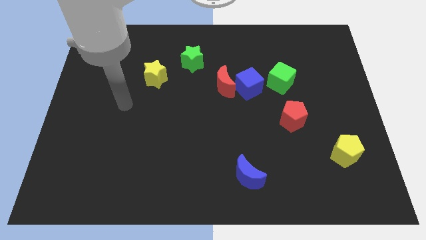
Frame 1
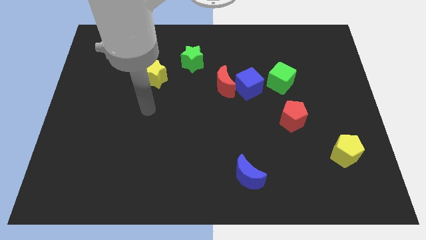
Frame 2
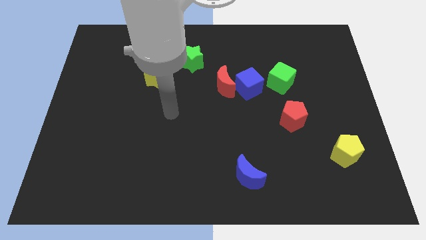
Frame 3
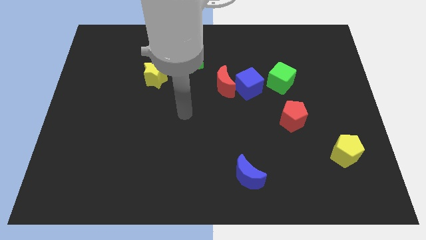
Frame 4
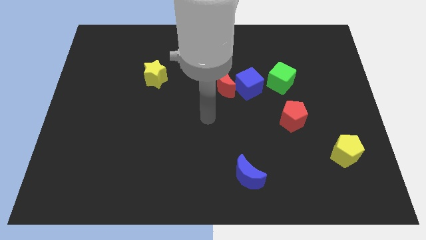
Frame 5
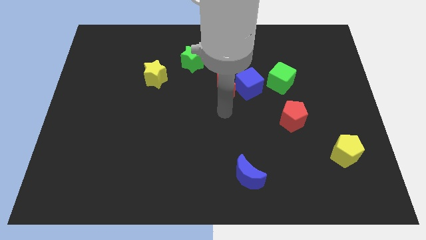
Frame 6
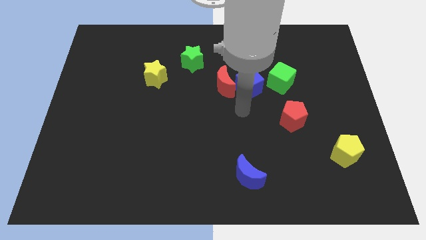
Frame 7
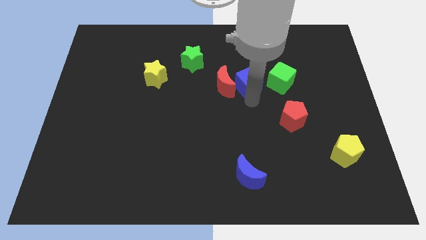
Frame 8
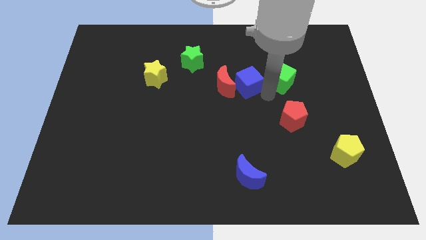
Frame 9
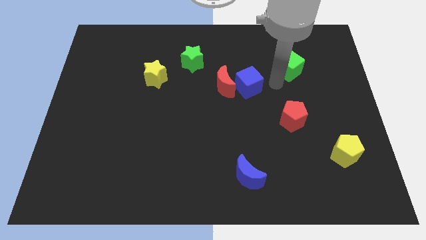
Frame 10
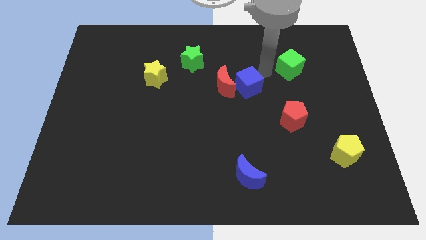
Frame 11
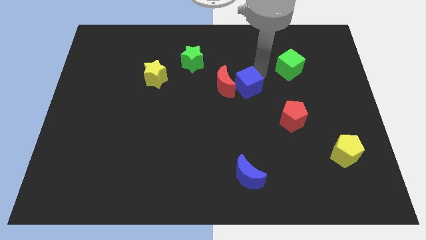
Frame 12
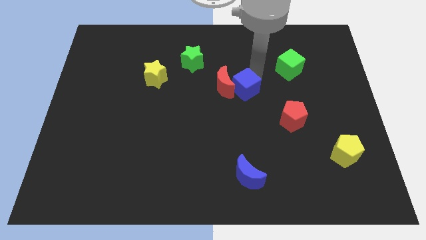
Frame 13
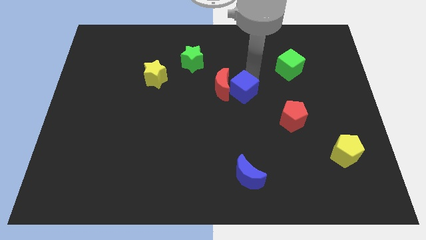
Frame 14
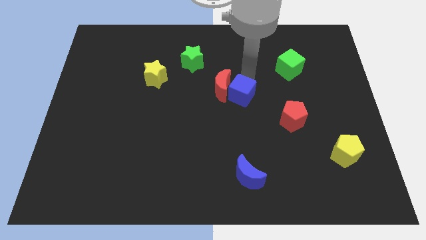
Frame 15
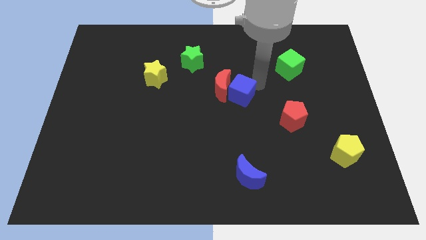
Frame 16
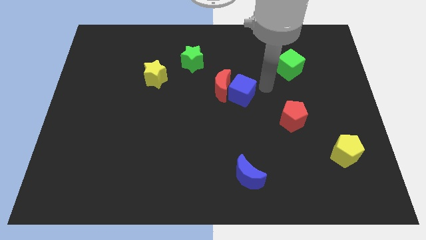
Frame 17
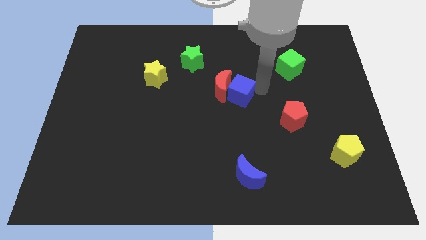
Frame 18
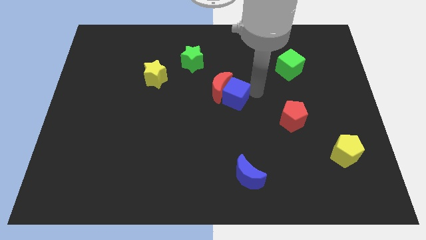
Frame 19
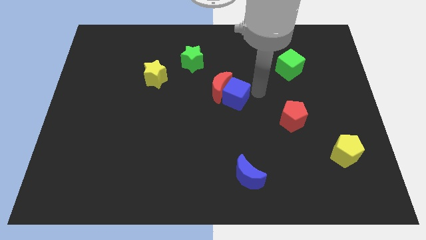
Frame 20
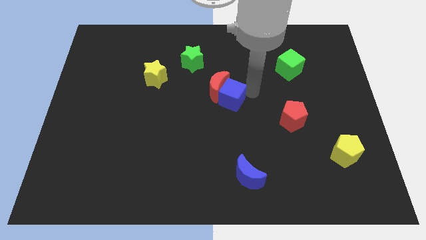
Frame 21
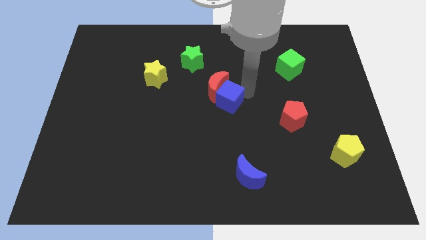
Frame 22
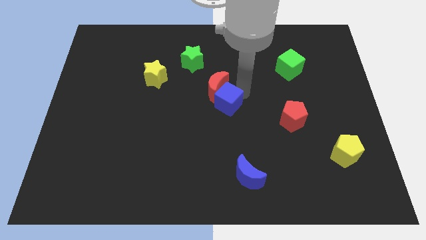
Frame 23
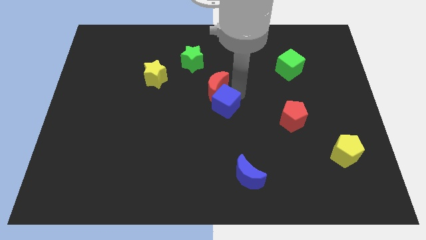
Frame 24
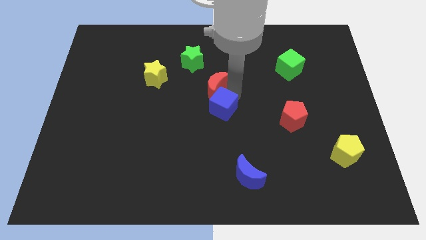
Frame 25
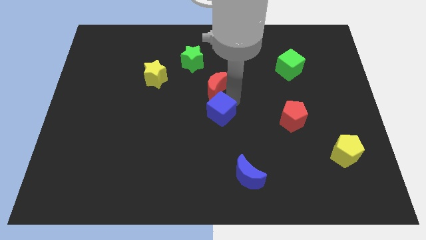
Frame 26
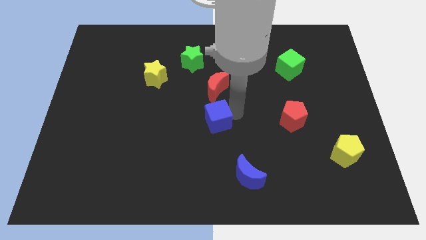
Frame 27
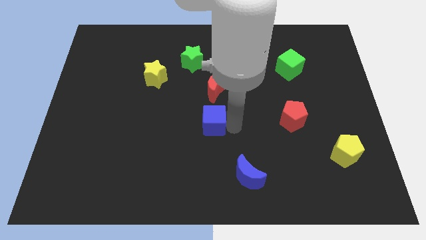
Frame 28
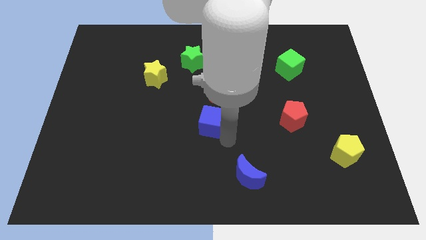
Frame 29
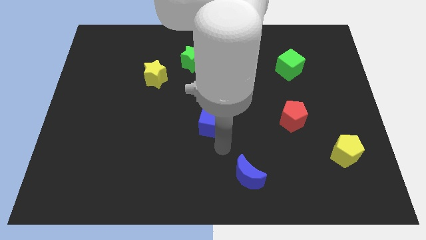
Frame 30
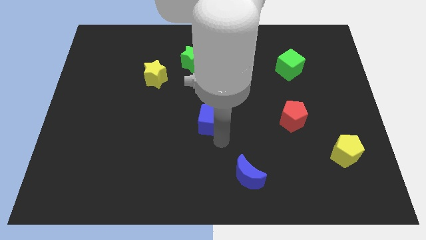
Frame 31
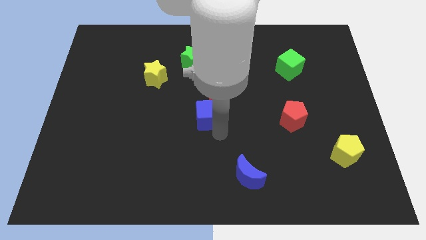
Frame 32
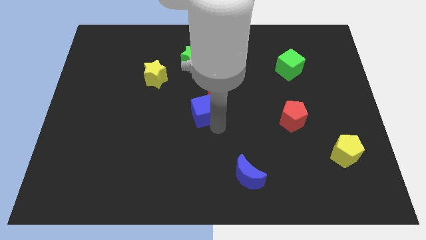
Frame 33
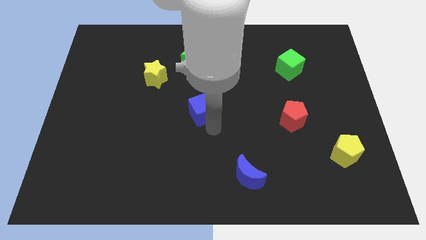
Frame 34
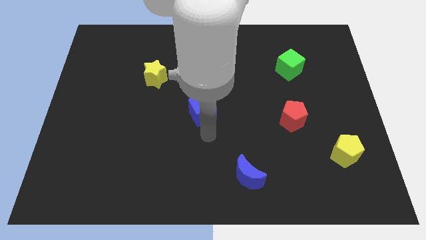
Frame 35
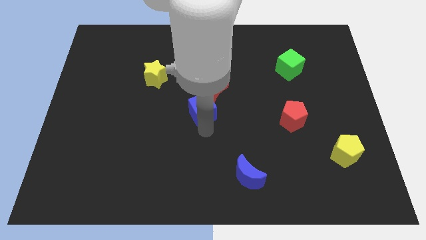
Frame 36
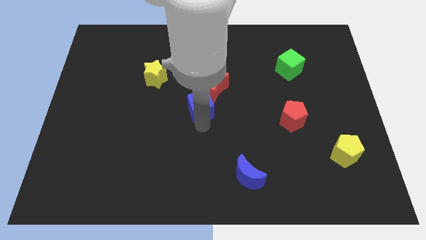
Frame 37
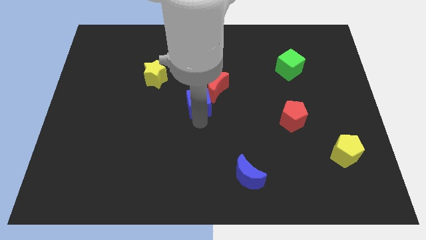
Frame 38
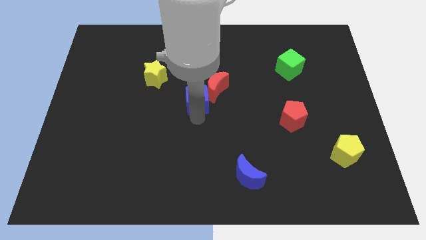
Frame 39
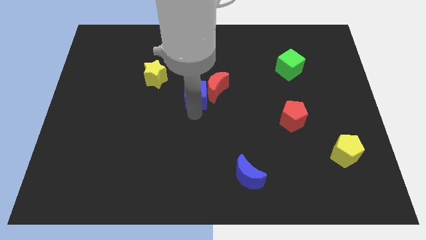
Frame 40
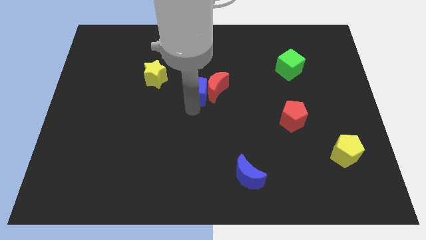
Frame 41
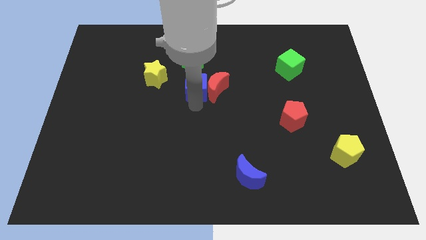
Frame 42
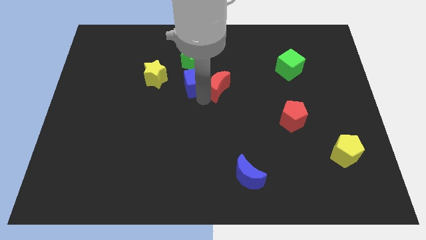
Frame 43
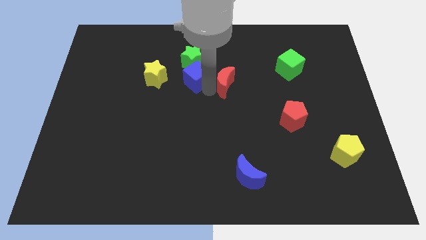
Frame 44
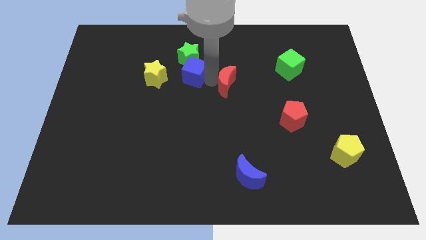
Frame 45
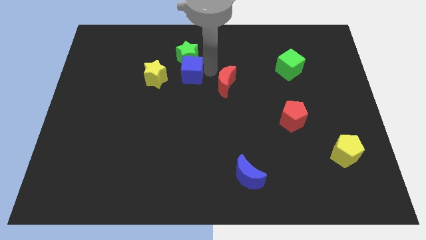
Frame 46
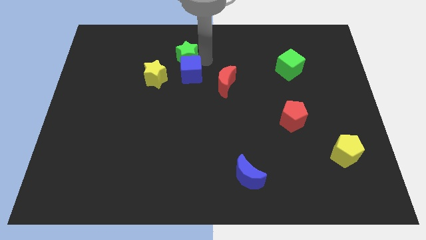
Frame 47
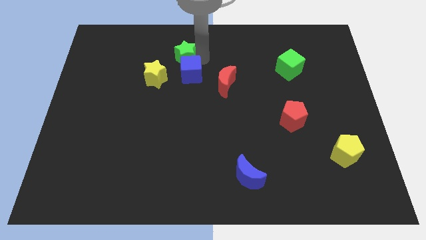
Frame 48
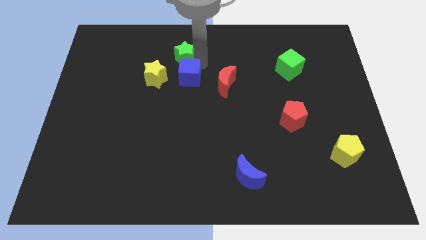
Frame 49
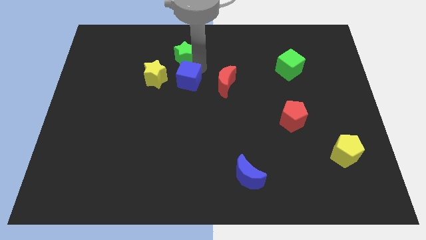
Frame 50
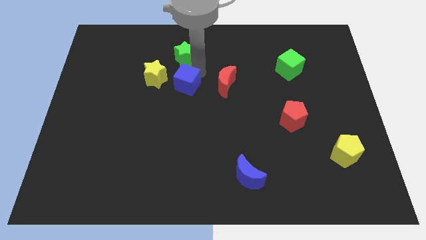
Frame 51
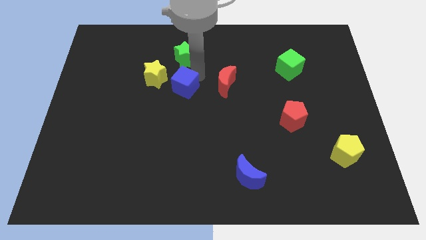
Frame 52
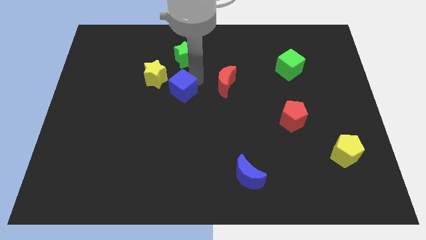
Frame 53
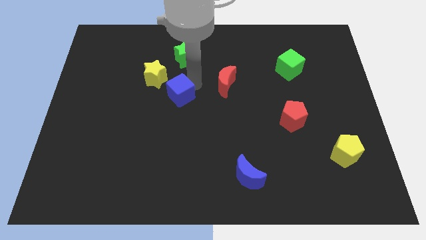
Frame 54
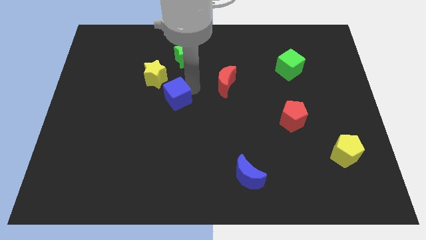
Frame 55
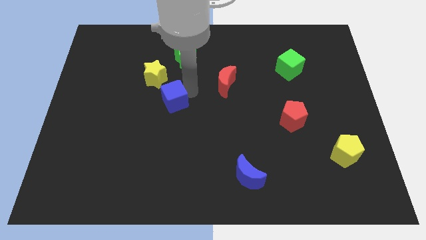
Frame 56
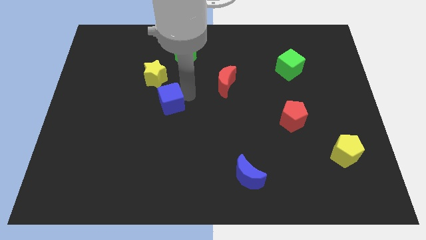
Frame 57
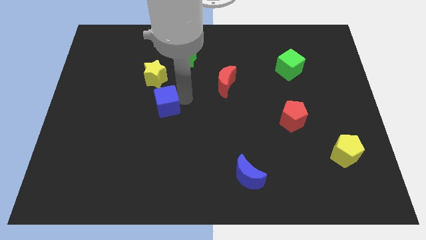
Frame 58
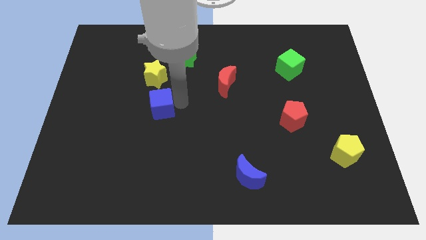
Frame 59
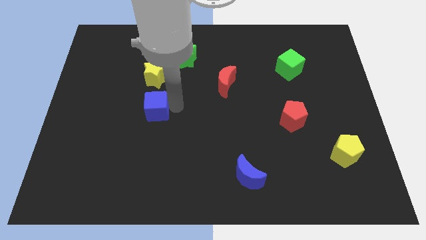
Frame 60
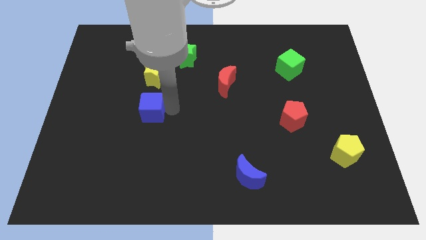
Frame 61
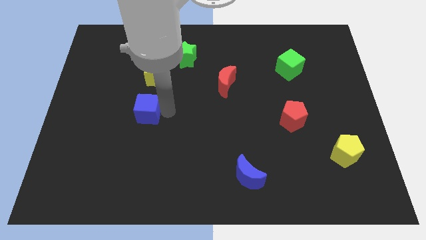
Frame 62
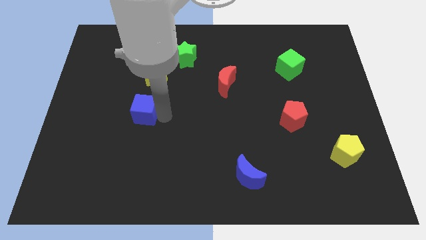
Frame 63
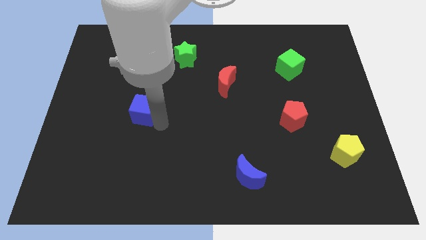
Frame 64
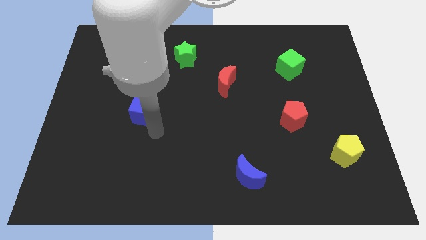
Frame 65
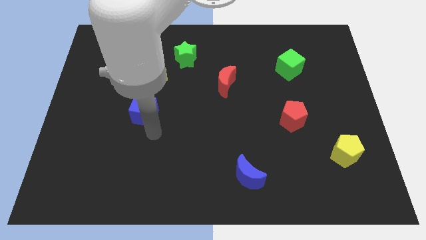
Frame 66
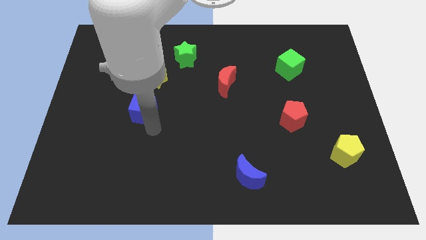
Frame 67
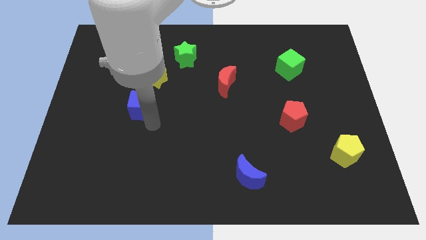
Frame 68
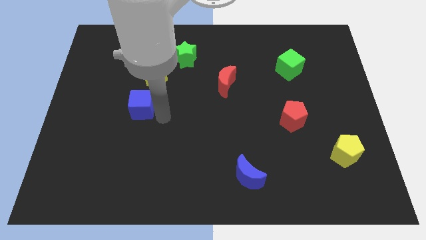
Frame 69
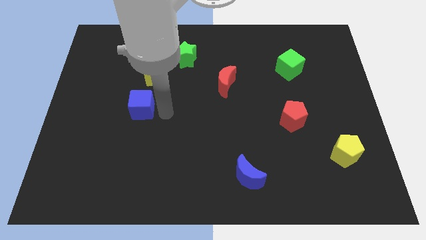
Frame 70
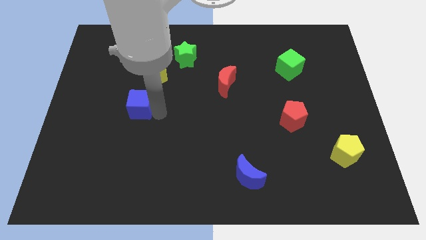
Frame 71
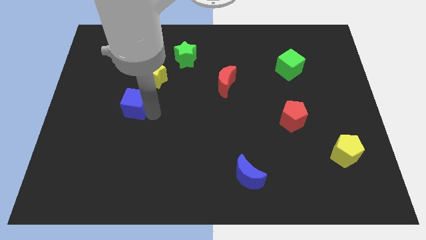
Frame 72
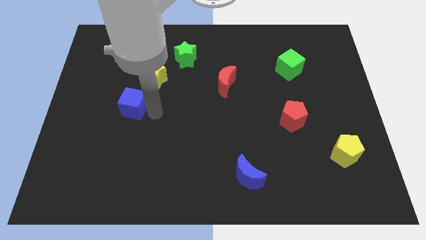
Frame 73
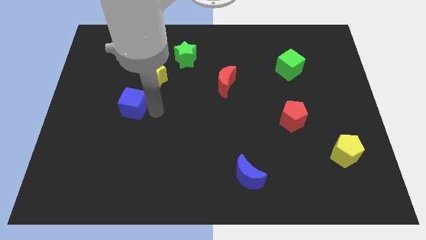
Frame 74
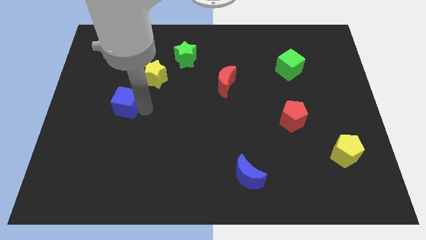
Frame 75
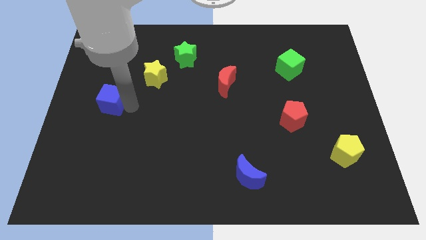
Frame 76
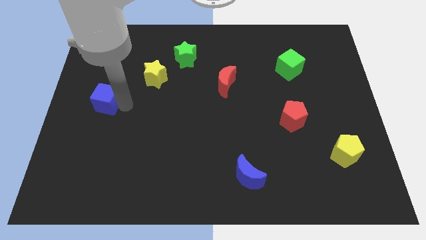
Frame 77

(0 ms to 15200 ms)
put the blue cube to the left side
